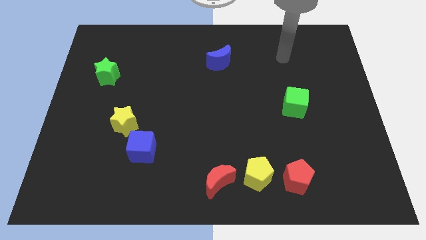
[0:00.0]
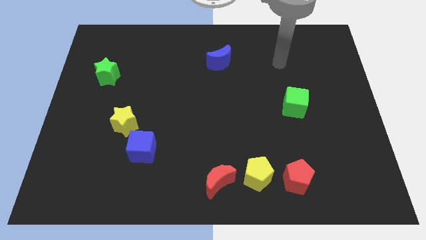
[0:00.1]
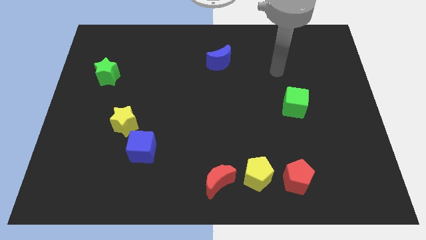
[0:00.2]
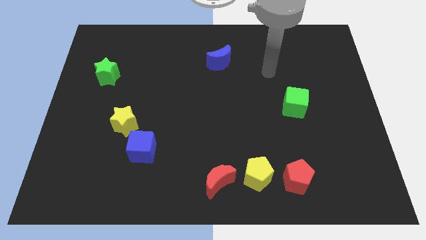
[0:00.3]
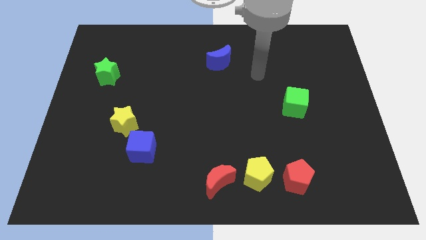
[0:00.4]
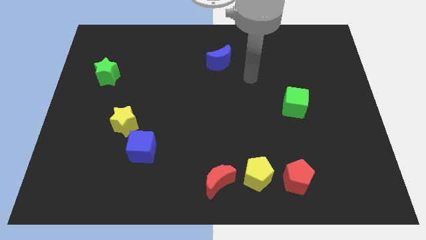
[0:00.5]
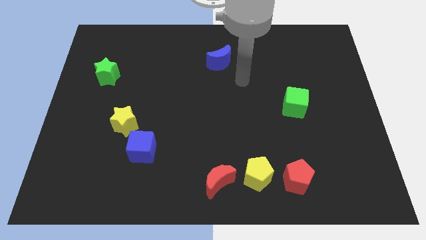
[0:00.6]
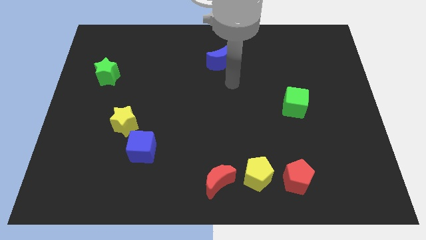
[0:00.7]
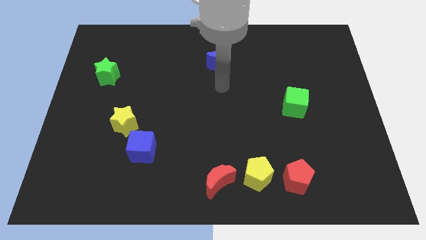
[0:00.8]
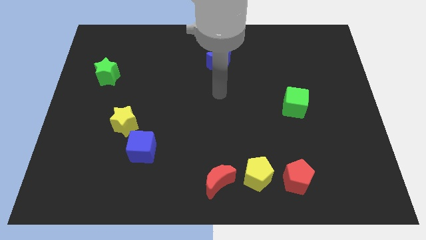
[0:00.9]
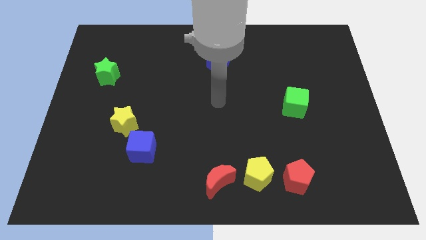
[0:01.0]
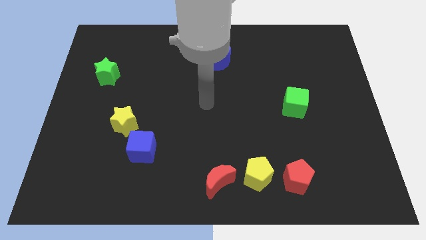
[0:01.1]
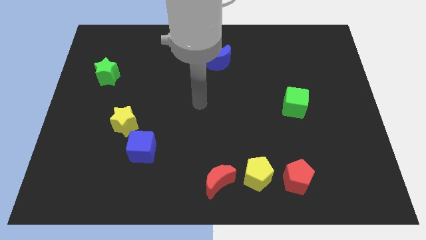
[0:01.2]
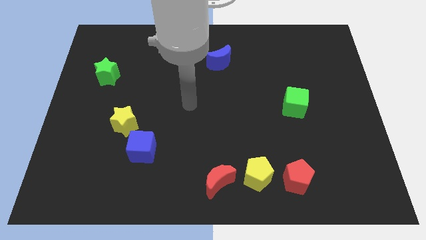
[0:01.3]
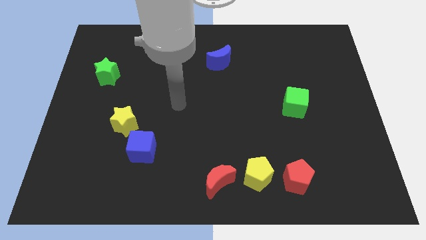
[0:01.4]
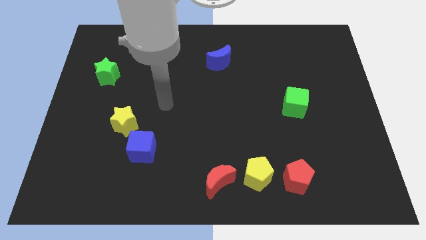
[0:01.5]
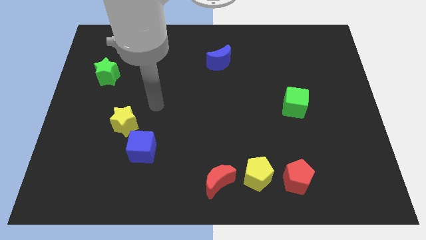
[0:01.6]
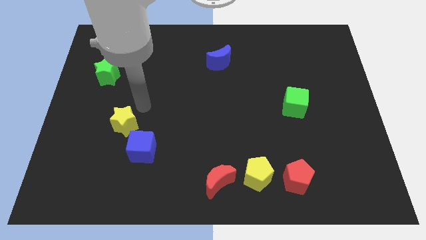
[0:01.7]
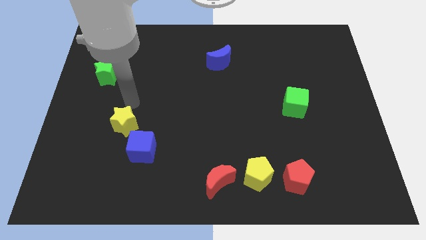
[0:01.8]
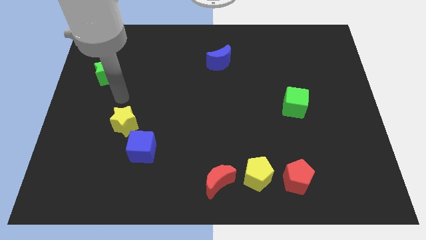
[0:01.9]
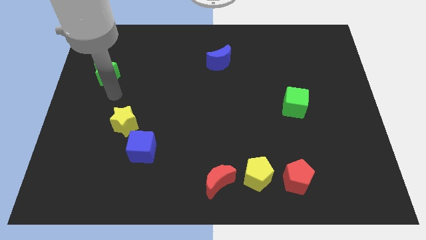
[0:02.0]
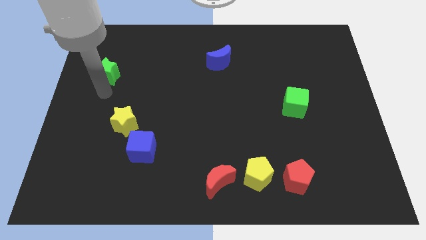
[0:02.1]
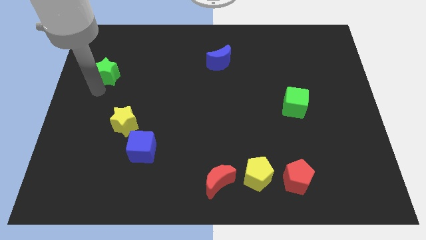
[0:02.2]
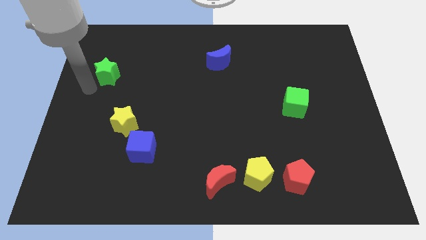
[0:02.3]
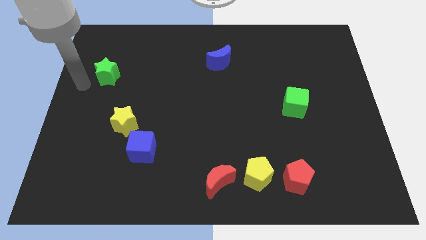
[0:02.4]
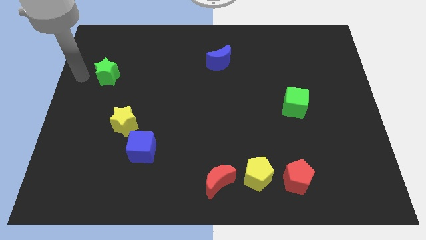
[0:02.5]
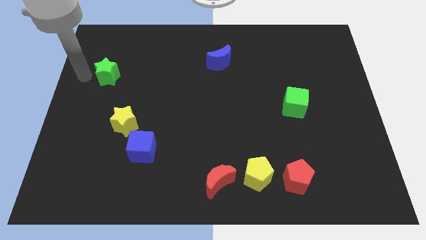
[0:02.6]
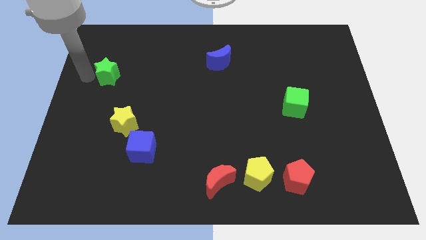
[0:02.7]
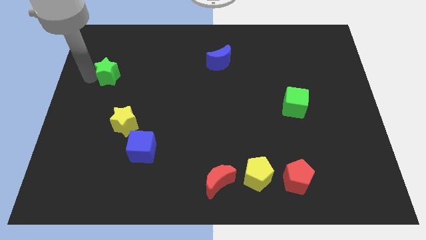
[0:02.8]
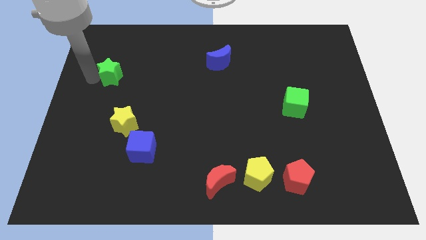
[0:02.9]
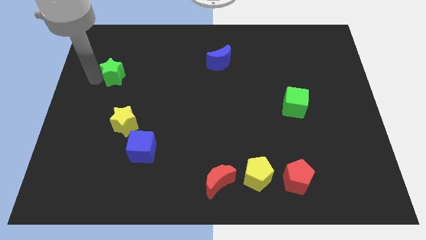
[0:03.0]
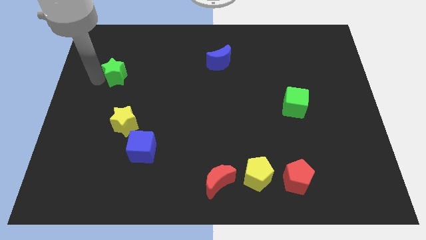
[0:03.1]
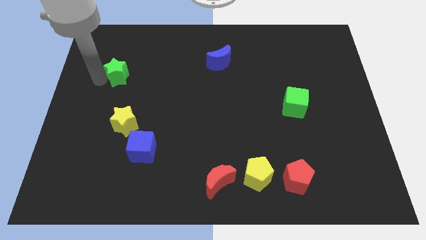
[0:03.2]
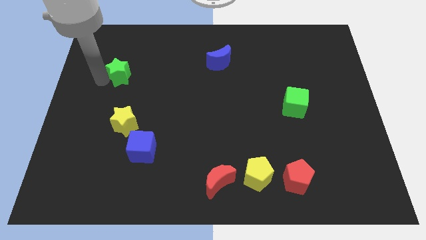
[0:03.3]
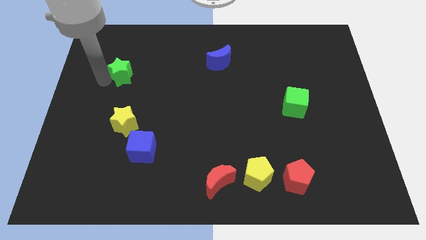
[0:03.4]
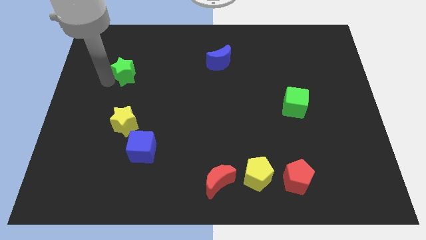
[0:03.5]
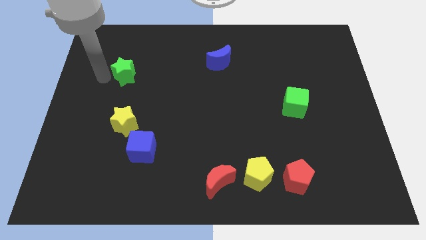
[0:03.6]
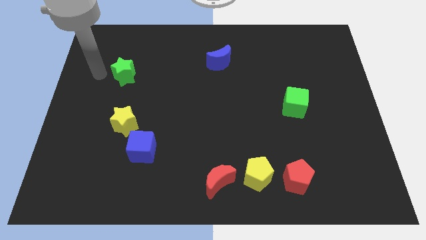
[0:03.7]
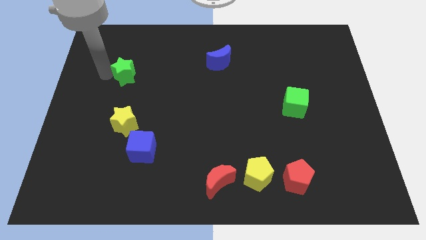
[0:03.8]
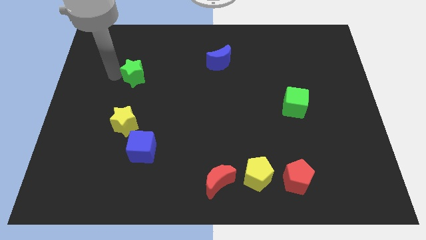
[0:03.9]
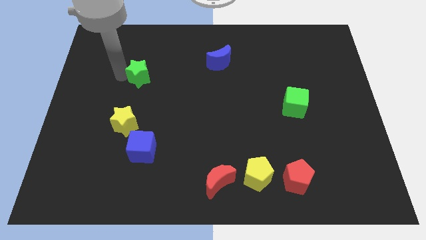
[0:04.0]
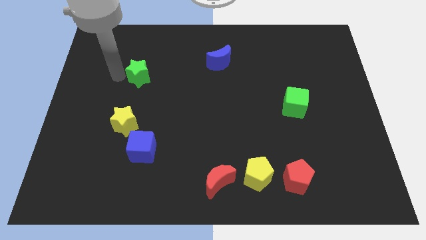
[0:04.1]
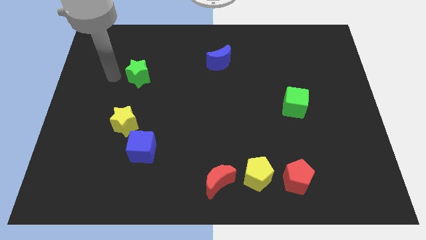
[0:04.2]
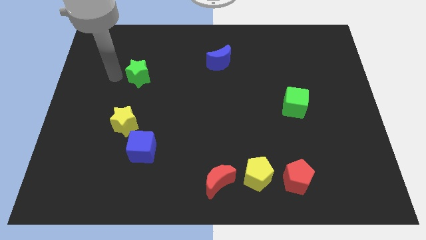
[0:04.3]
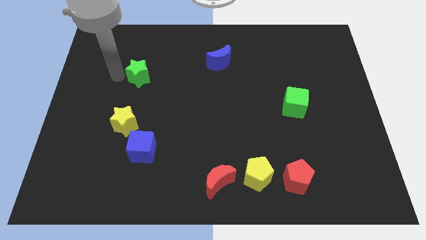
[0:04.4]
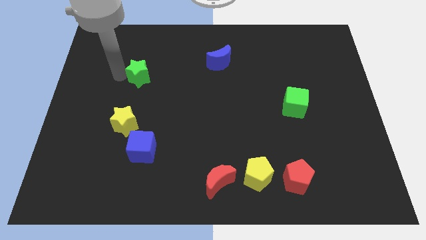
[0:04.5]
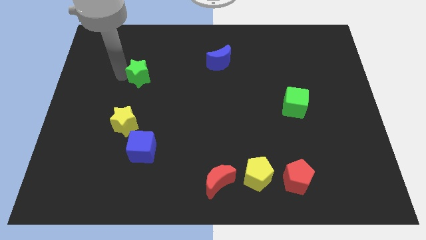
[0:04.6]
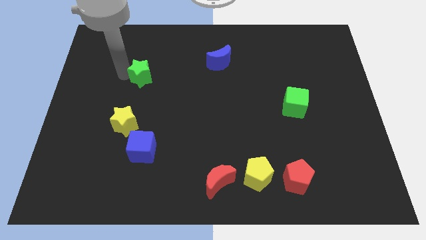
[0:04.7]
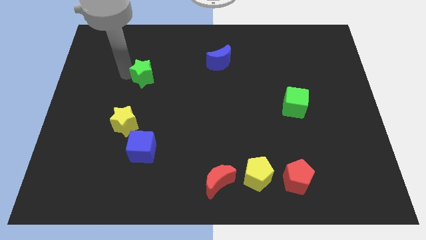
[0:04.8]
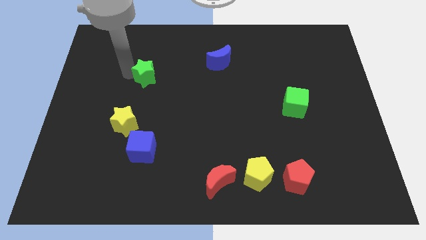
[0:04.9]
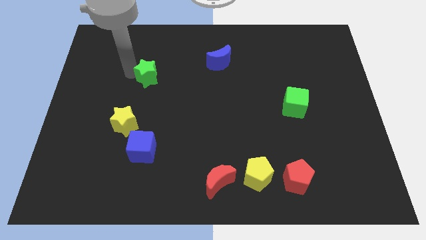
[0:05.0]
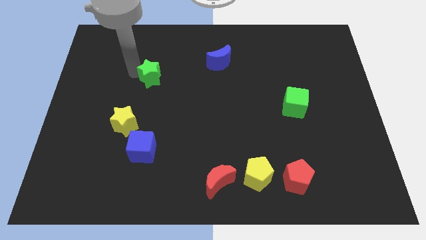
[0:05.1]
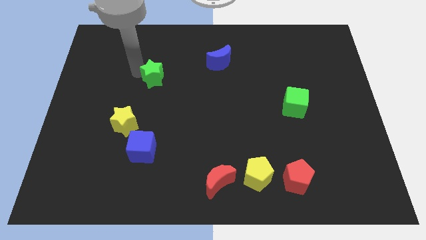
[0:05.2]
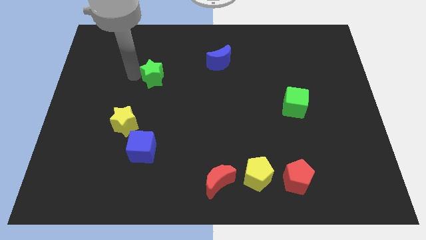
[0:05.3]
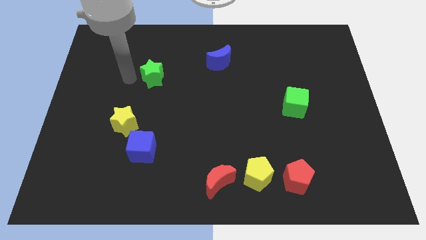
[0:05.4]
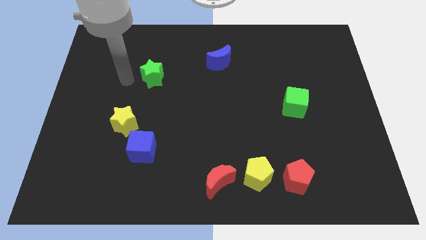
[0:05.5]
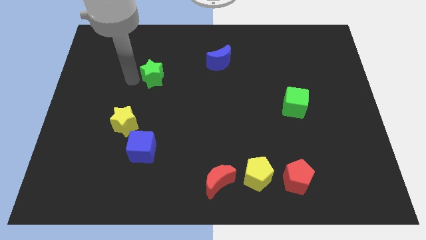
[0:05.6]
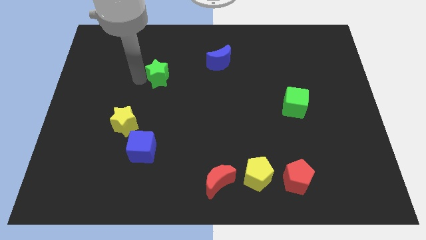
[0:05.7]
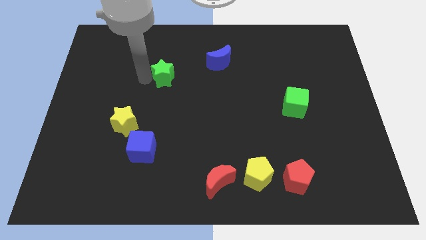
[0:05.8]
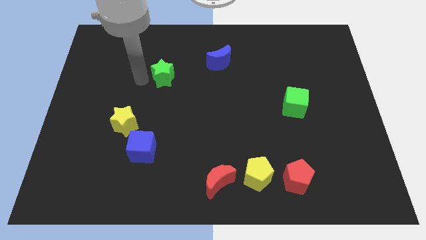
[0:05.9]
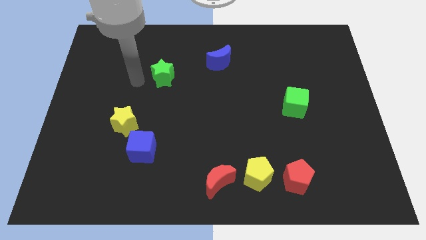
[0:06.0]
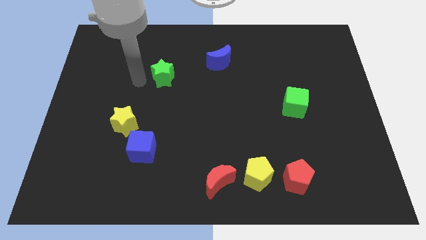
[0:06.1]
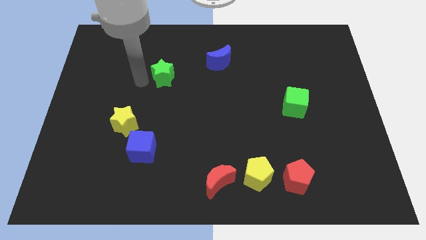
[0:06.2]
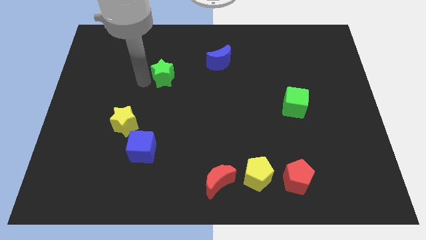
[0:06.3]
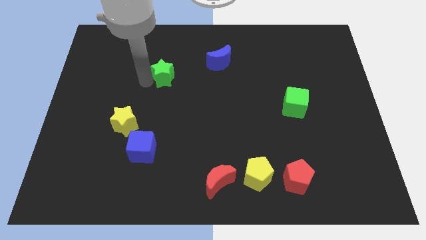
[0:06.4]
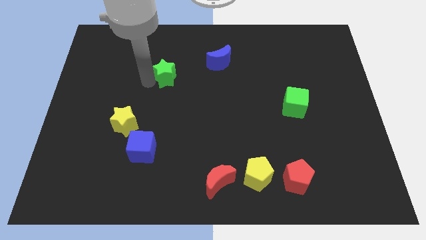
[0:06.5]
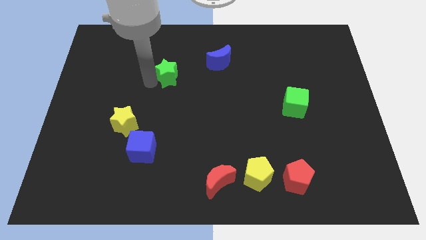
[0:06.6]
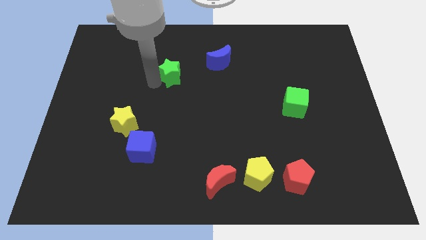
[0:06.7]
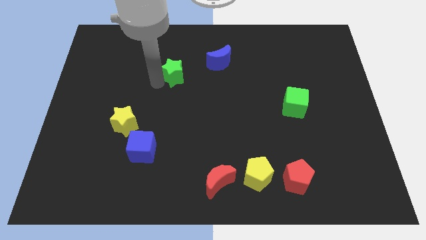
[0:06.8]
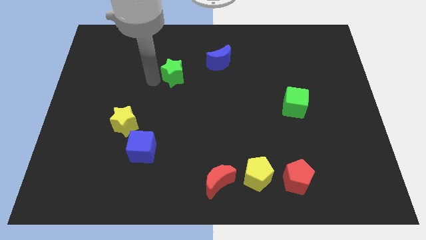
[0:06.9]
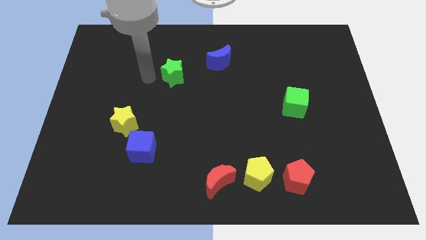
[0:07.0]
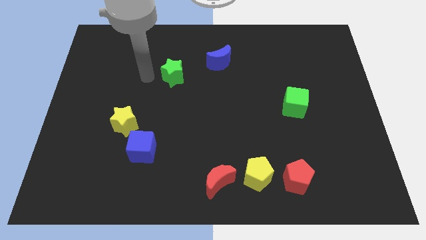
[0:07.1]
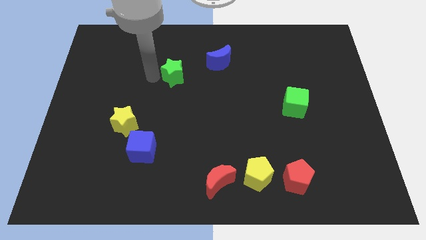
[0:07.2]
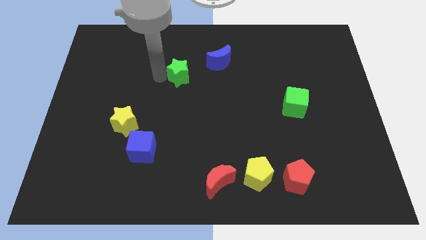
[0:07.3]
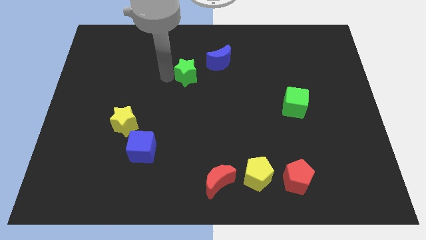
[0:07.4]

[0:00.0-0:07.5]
push the green star right

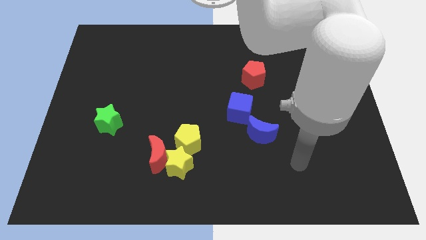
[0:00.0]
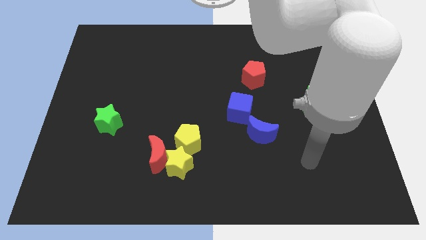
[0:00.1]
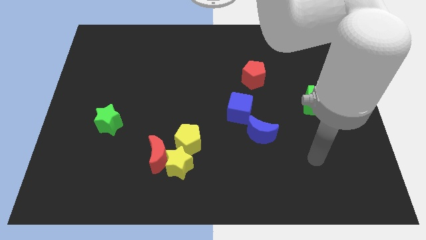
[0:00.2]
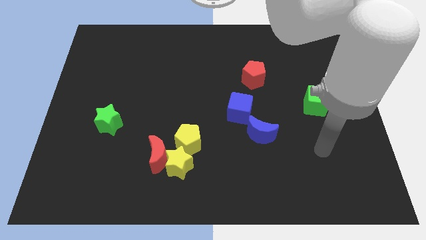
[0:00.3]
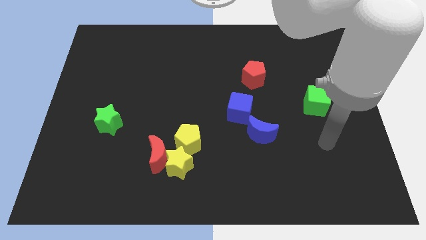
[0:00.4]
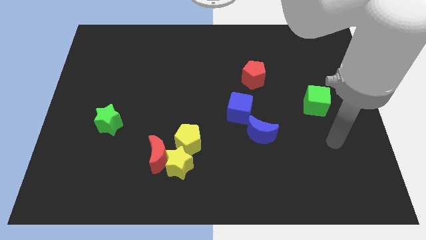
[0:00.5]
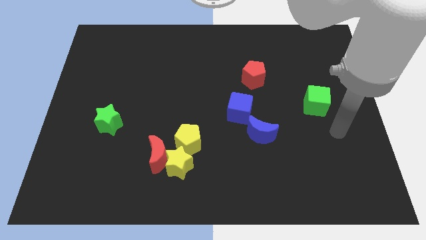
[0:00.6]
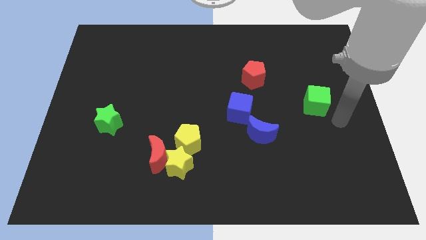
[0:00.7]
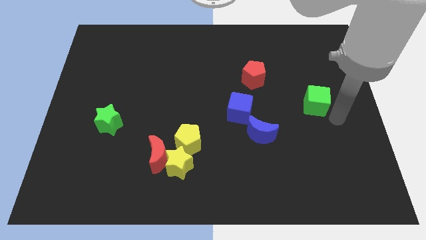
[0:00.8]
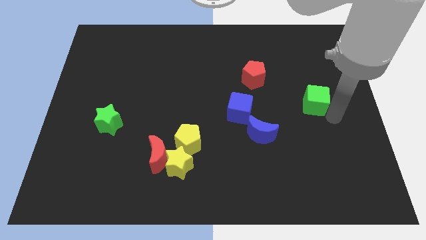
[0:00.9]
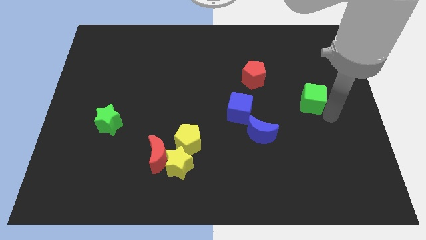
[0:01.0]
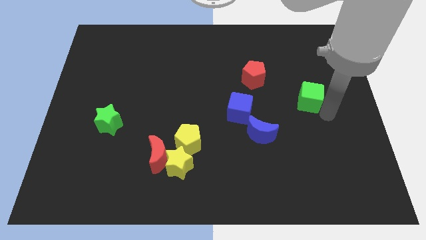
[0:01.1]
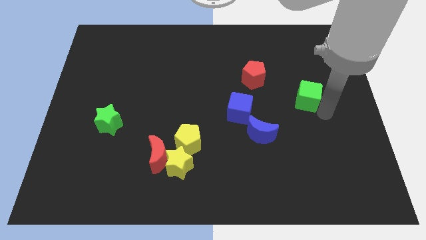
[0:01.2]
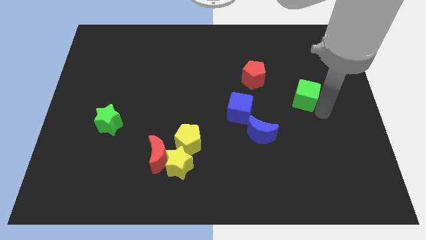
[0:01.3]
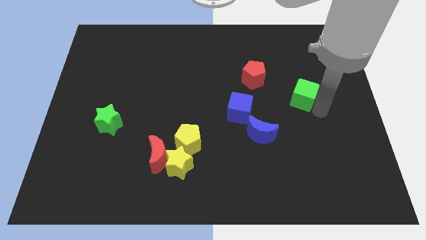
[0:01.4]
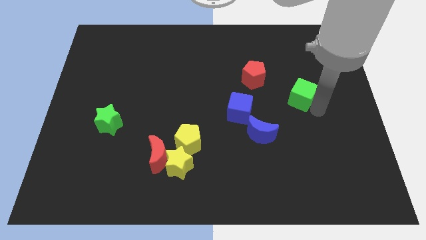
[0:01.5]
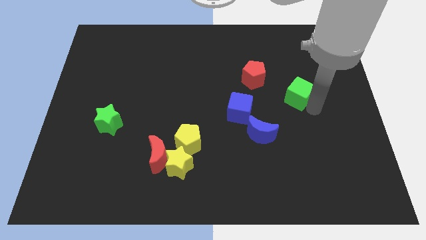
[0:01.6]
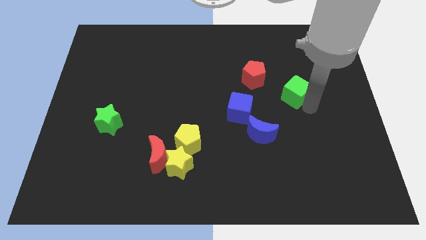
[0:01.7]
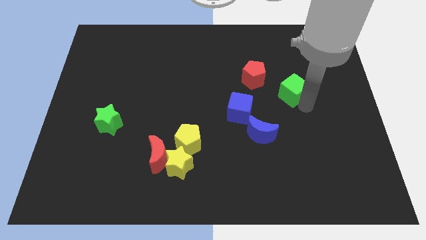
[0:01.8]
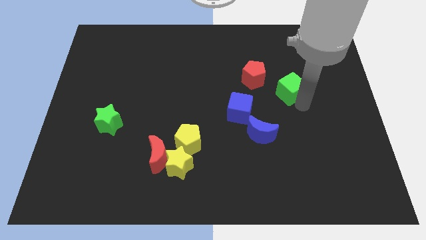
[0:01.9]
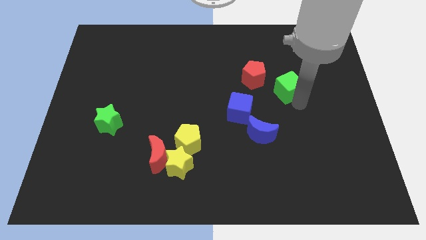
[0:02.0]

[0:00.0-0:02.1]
move the green cube up and then to the left a little
